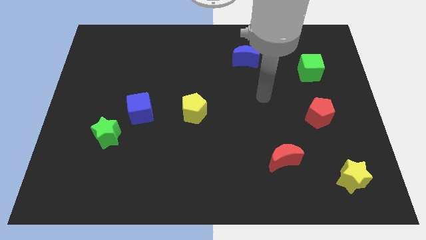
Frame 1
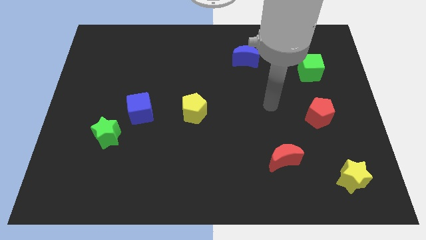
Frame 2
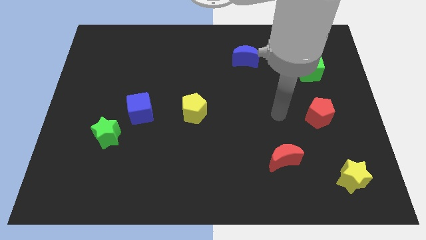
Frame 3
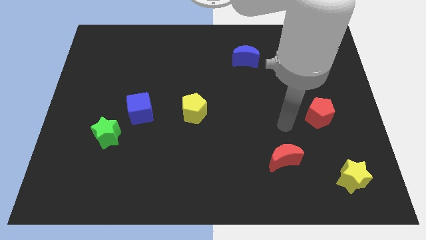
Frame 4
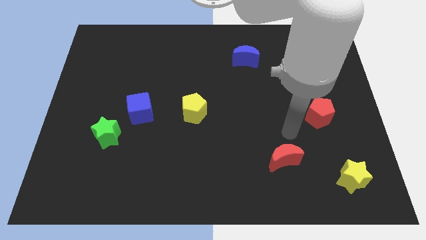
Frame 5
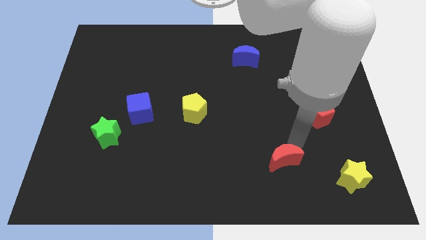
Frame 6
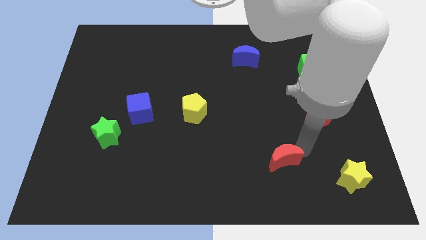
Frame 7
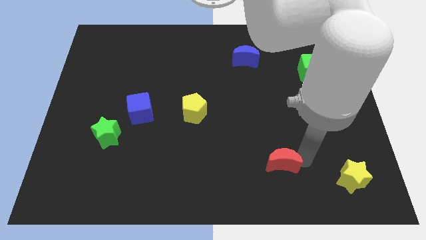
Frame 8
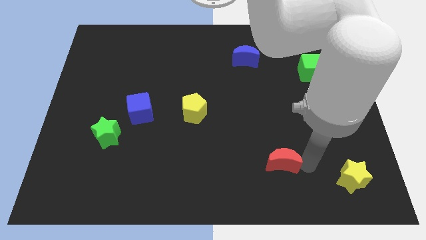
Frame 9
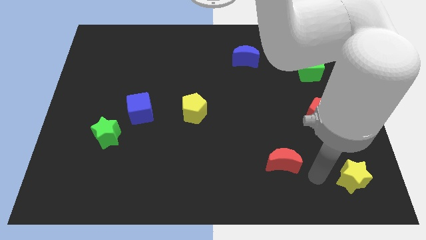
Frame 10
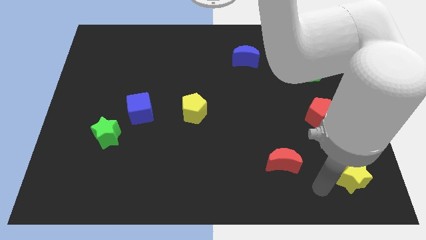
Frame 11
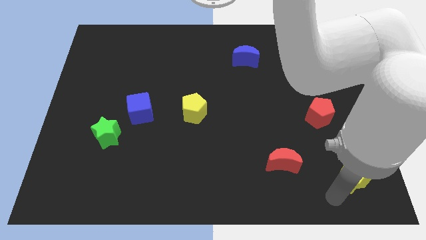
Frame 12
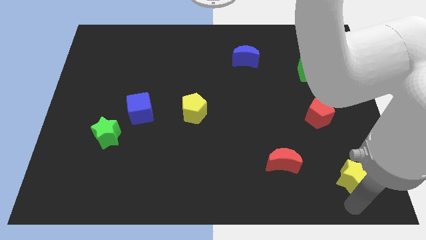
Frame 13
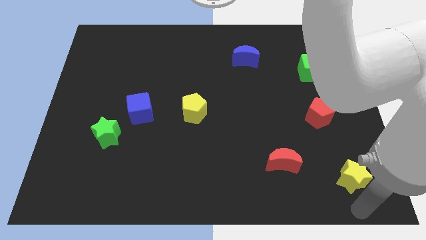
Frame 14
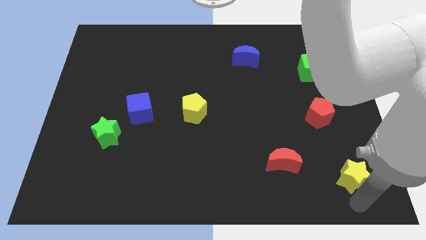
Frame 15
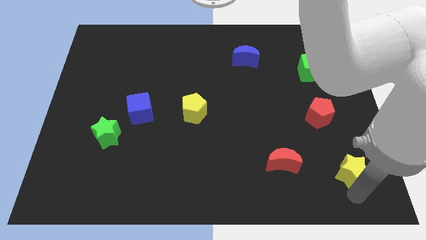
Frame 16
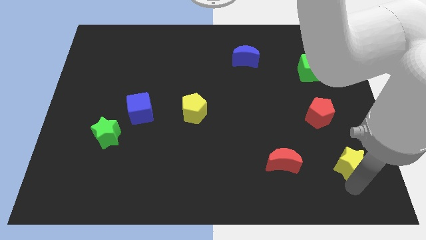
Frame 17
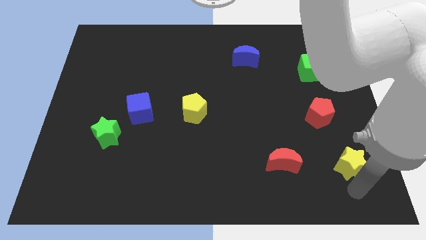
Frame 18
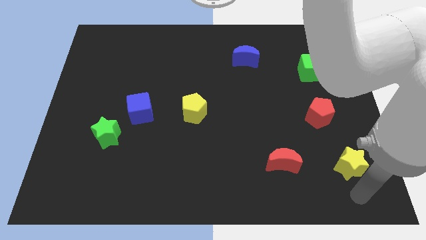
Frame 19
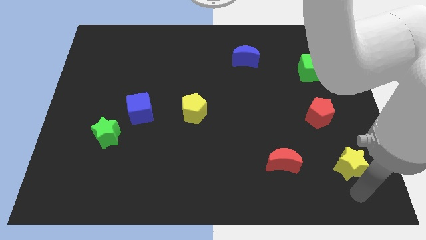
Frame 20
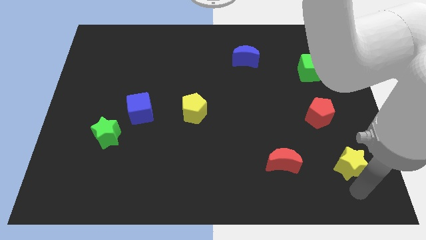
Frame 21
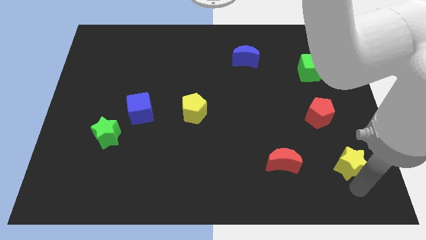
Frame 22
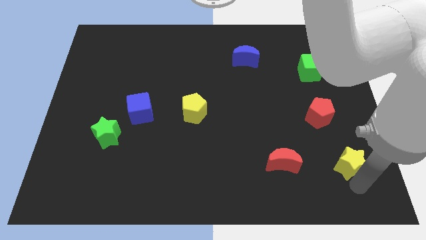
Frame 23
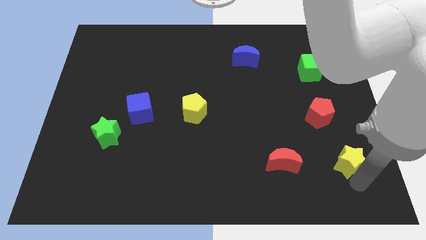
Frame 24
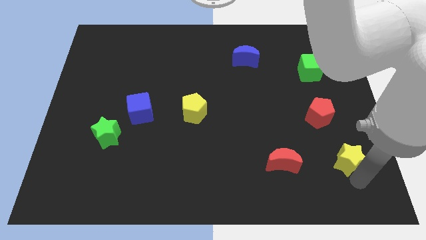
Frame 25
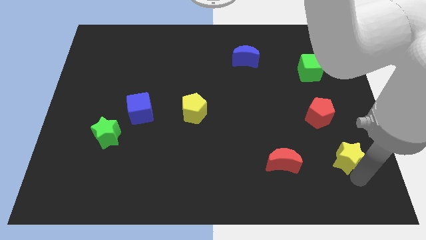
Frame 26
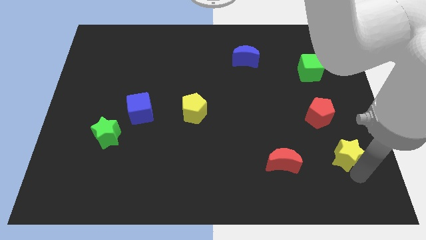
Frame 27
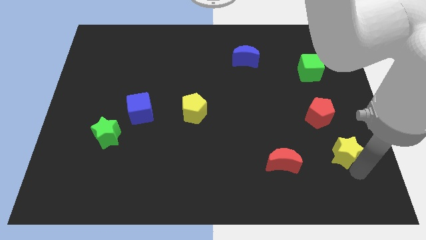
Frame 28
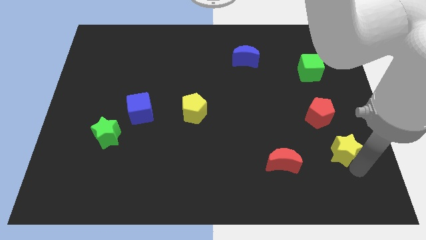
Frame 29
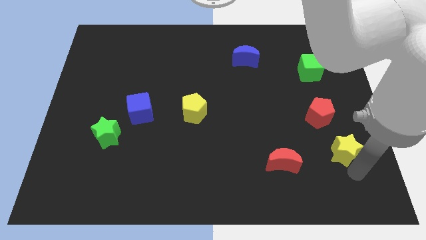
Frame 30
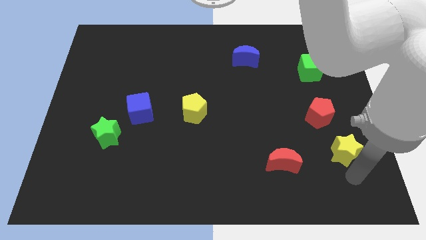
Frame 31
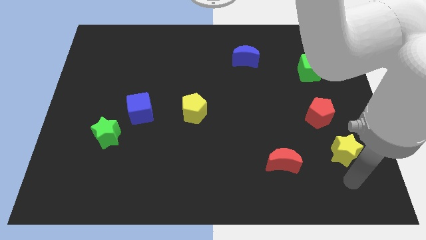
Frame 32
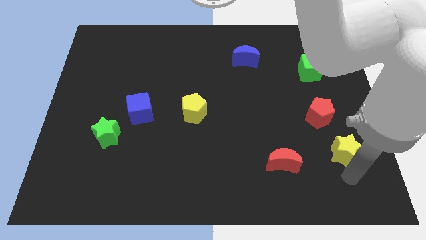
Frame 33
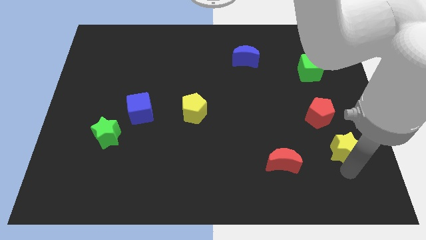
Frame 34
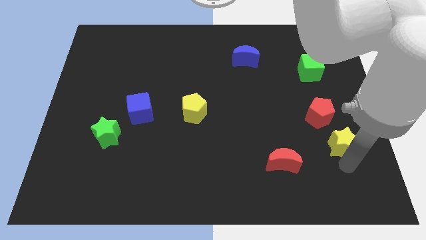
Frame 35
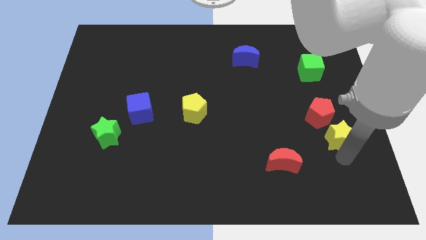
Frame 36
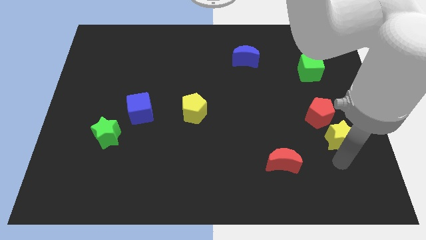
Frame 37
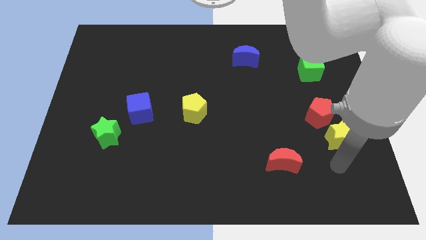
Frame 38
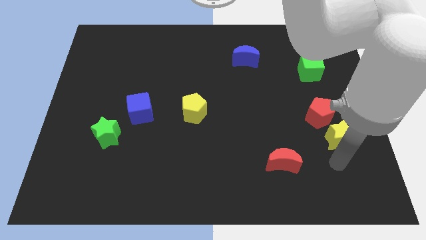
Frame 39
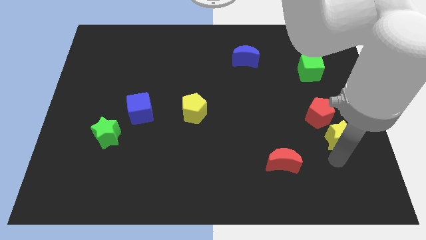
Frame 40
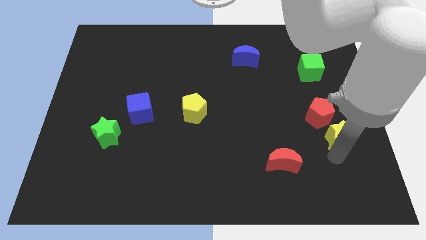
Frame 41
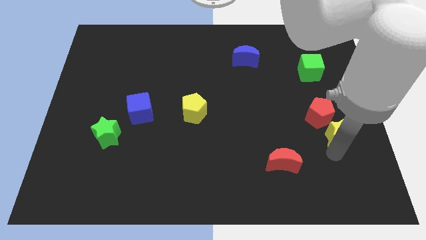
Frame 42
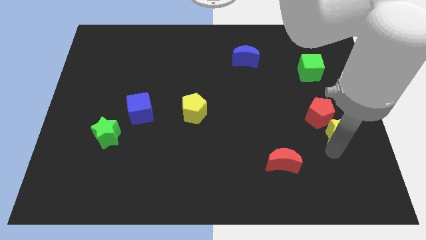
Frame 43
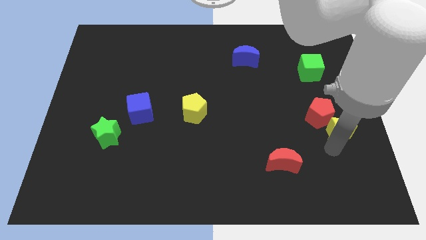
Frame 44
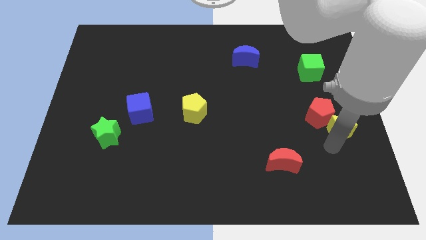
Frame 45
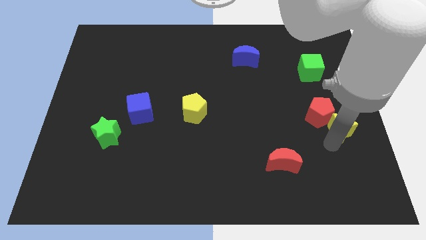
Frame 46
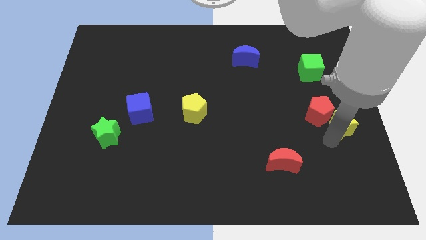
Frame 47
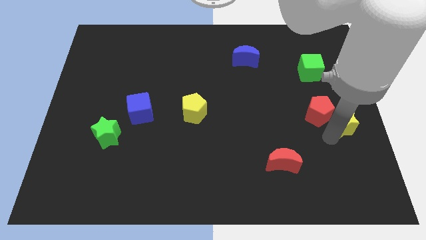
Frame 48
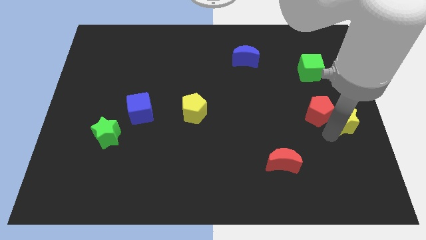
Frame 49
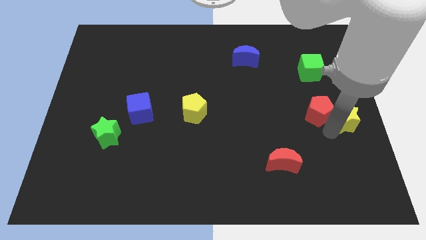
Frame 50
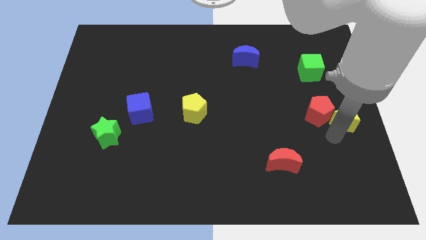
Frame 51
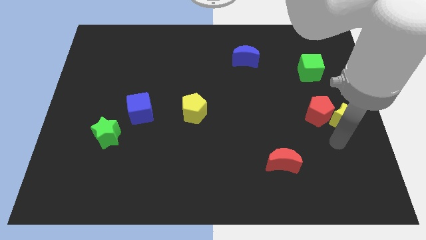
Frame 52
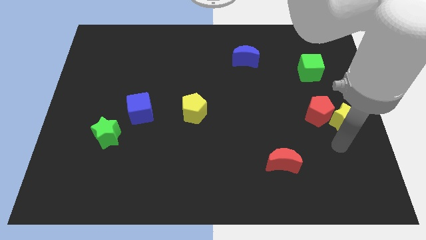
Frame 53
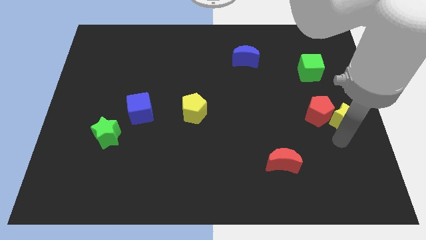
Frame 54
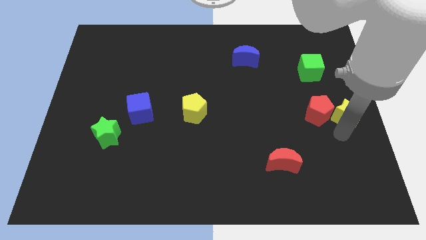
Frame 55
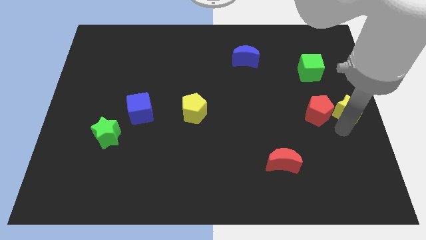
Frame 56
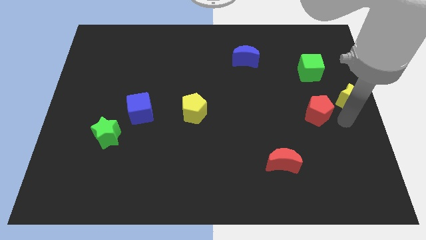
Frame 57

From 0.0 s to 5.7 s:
move the yellow star upwards

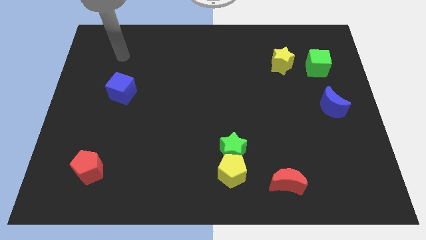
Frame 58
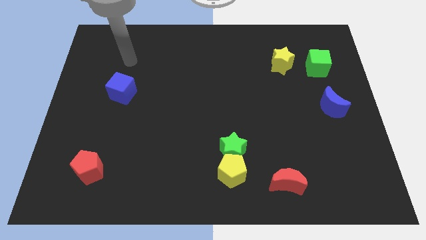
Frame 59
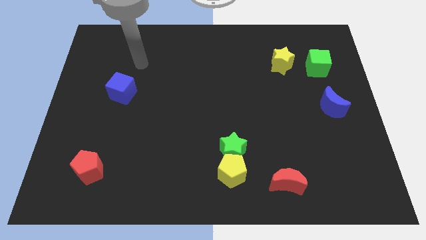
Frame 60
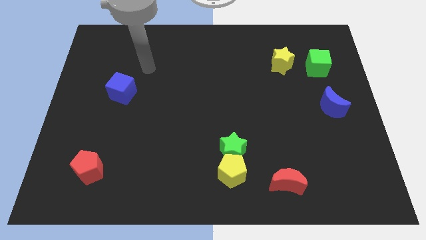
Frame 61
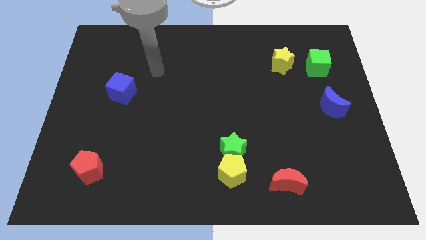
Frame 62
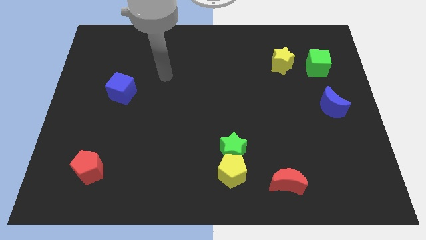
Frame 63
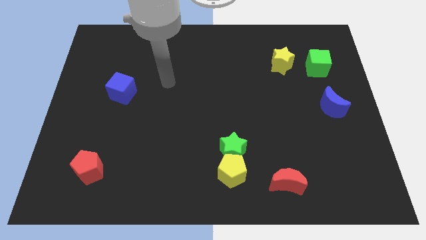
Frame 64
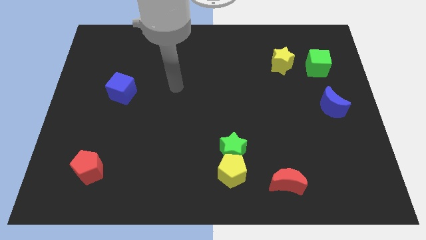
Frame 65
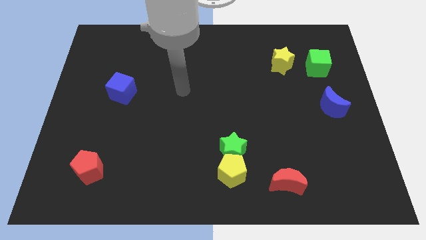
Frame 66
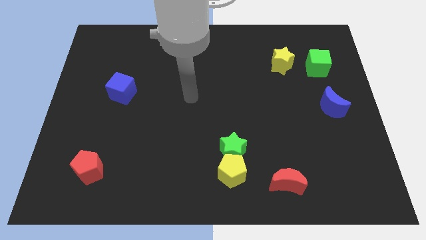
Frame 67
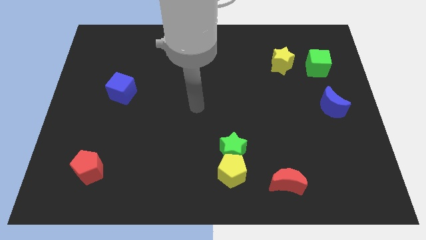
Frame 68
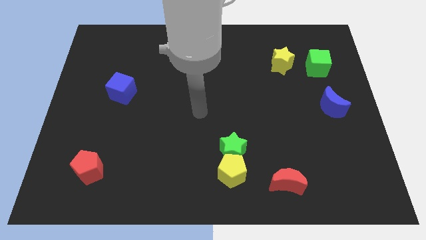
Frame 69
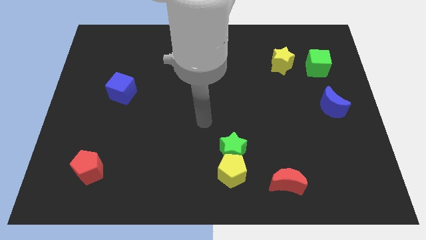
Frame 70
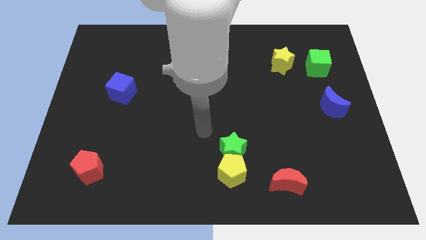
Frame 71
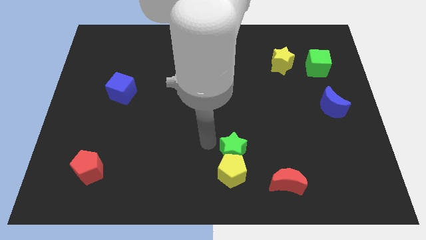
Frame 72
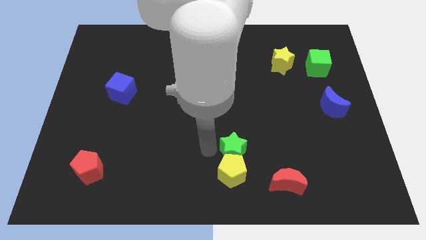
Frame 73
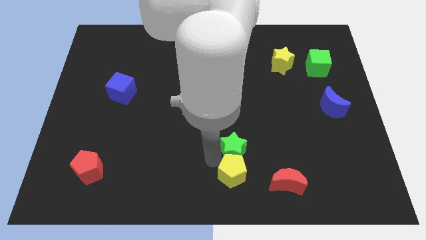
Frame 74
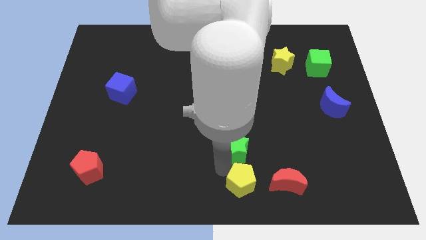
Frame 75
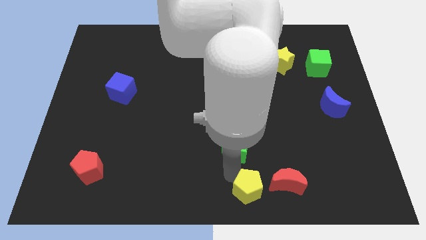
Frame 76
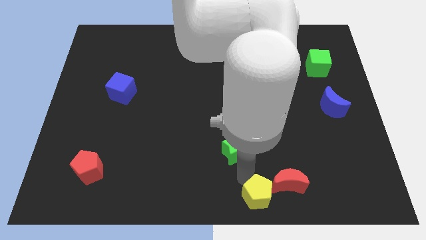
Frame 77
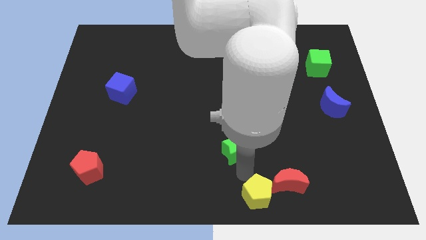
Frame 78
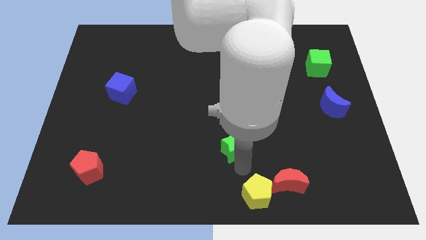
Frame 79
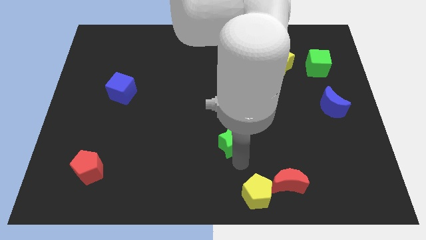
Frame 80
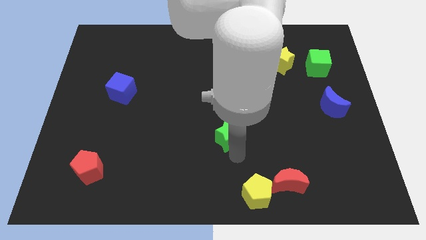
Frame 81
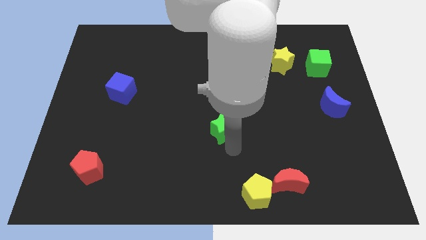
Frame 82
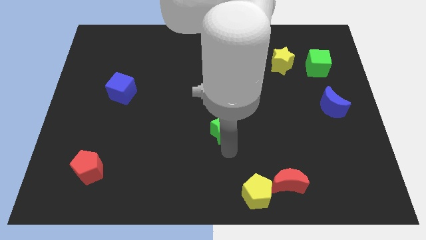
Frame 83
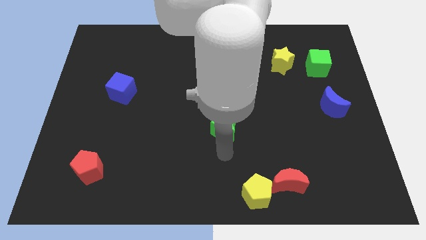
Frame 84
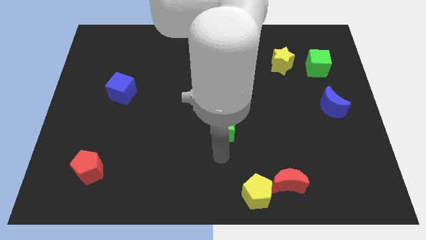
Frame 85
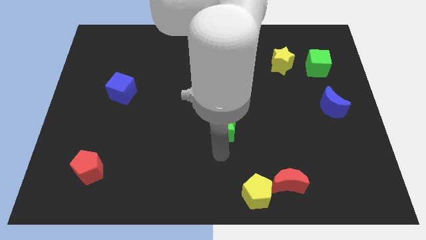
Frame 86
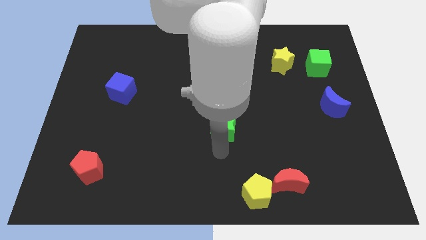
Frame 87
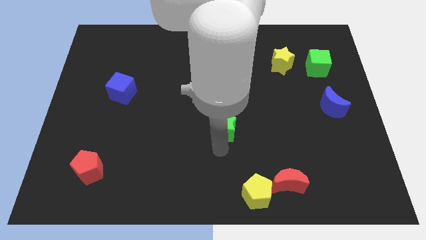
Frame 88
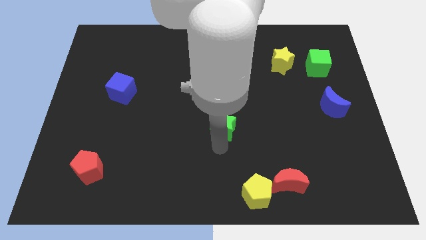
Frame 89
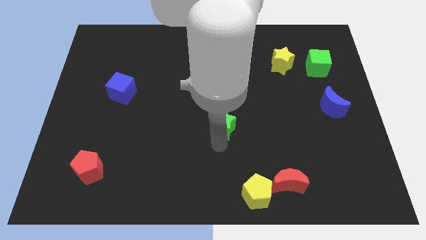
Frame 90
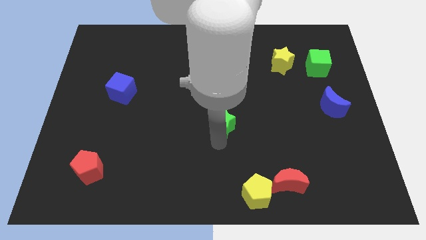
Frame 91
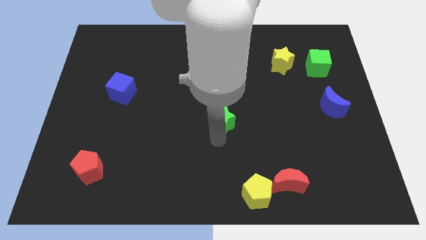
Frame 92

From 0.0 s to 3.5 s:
slightly push the green star up
